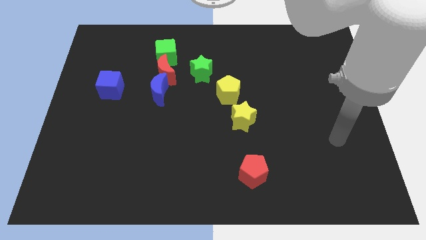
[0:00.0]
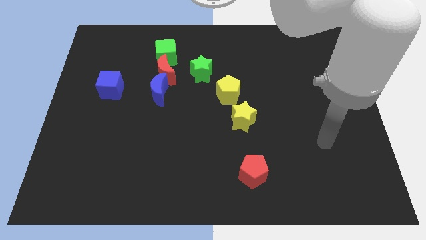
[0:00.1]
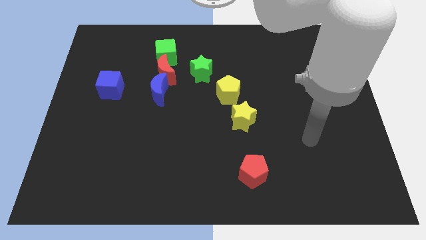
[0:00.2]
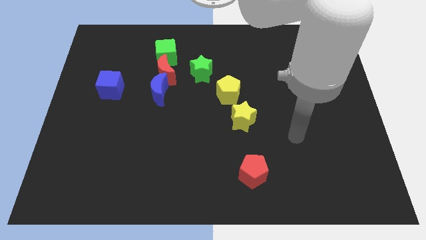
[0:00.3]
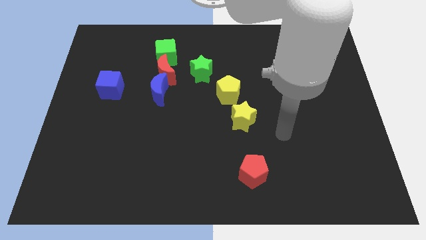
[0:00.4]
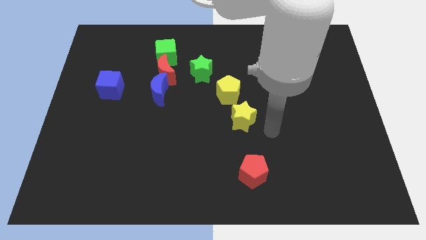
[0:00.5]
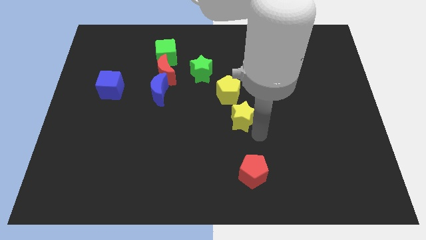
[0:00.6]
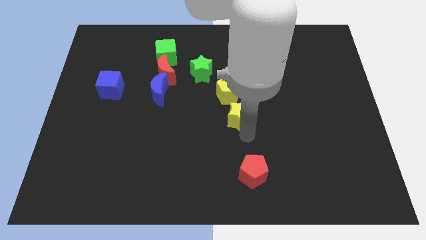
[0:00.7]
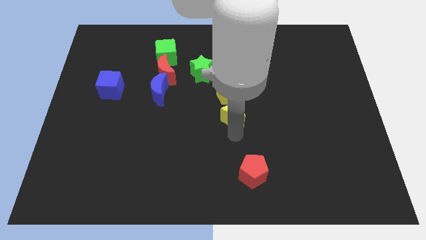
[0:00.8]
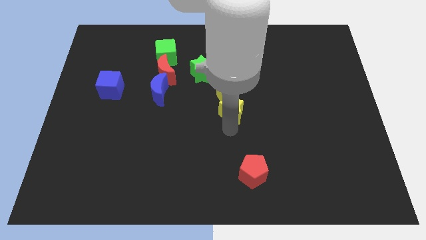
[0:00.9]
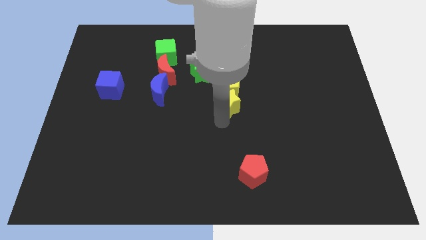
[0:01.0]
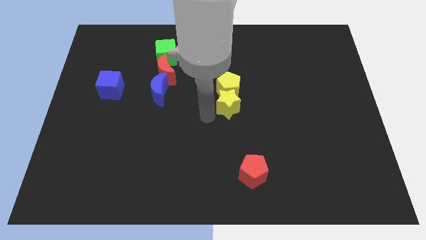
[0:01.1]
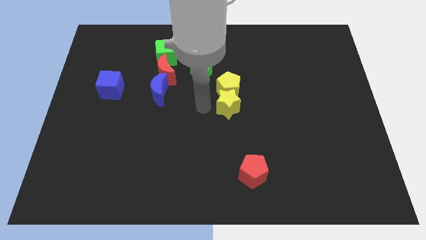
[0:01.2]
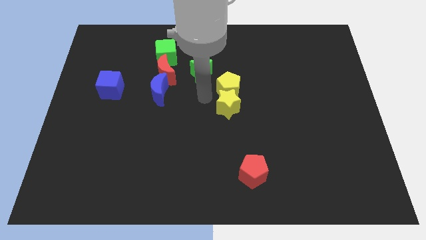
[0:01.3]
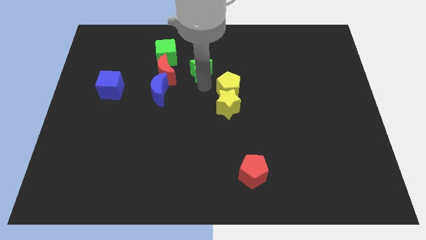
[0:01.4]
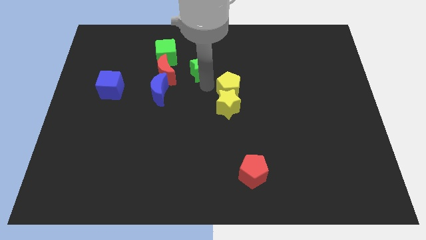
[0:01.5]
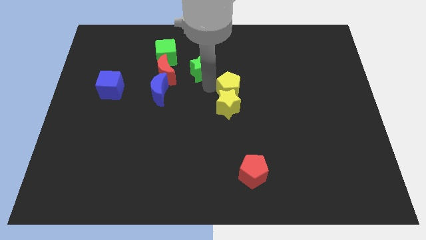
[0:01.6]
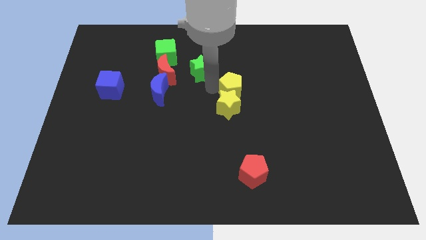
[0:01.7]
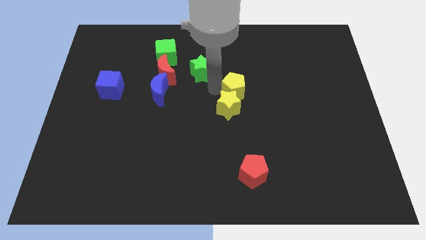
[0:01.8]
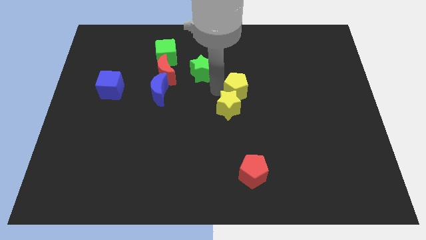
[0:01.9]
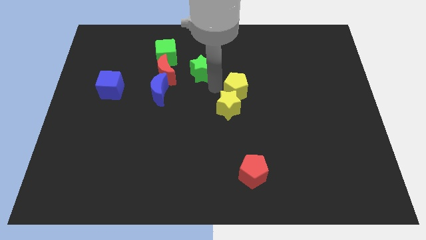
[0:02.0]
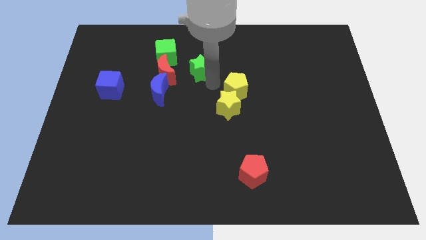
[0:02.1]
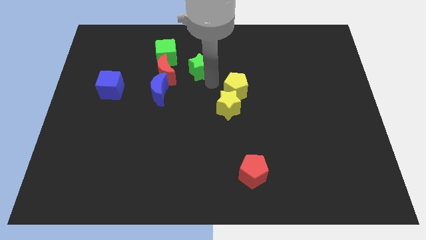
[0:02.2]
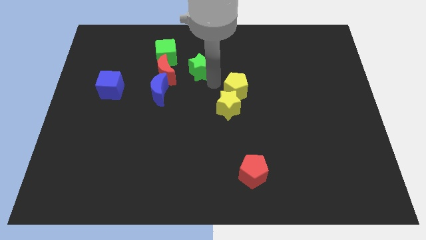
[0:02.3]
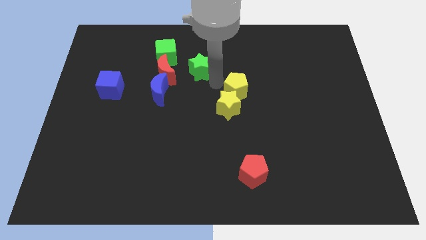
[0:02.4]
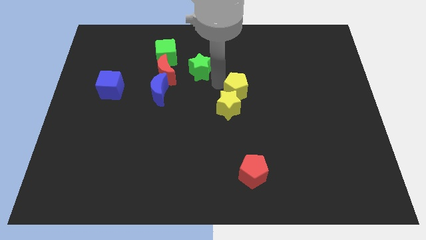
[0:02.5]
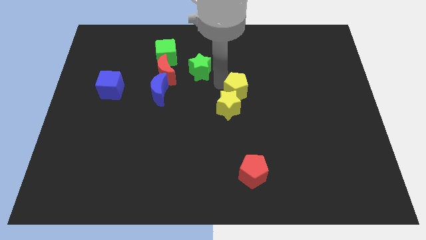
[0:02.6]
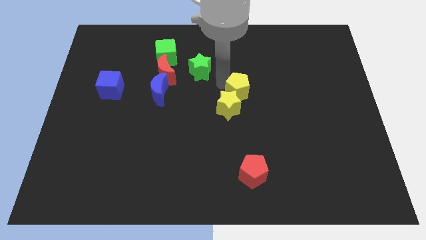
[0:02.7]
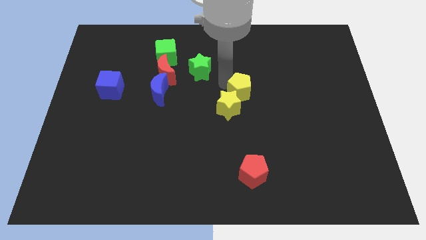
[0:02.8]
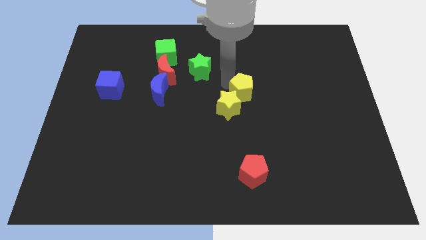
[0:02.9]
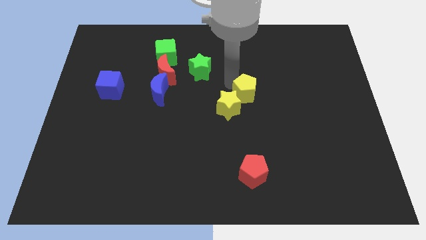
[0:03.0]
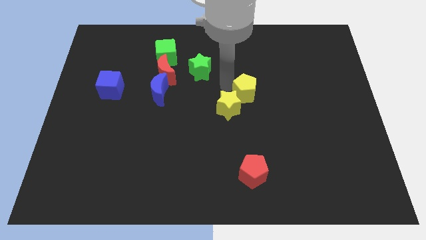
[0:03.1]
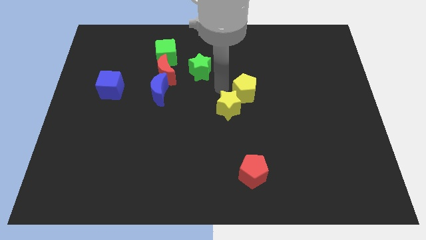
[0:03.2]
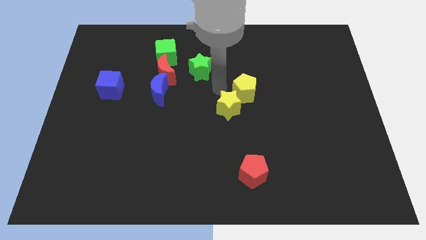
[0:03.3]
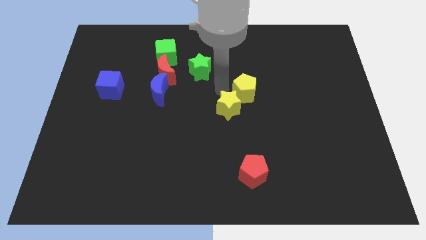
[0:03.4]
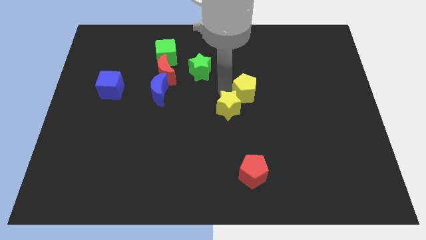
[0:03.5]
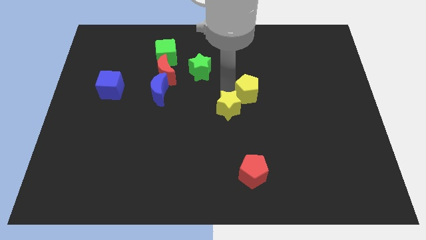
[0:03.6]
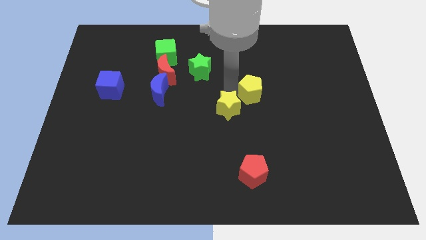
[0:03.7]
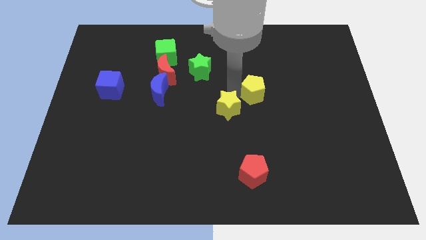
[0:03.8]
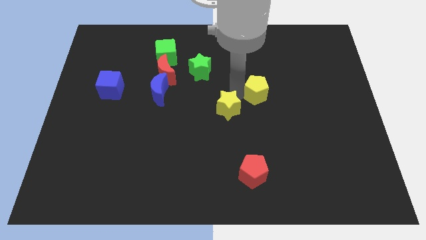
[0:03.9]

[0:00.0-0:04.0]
move the yellow pentagon to the right somewhat

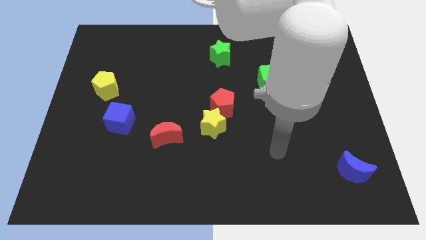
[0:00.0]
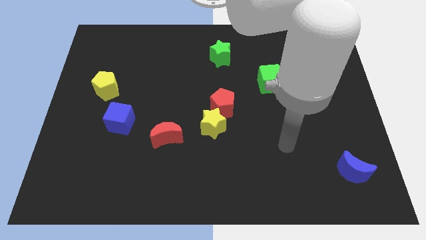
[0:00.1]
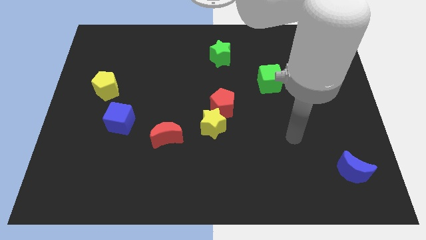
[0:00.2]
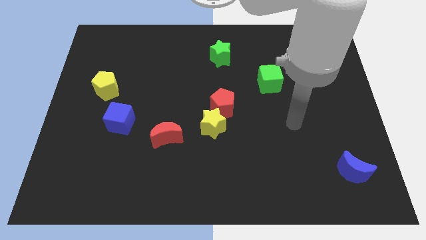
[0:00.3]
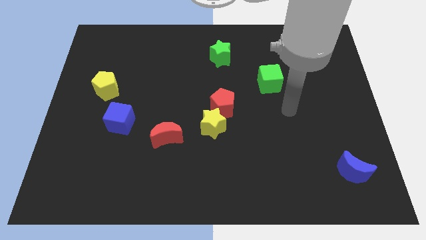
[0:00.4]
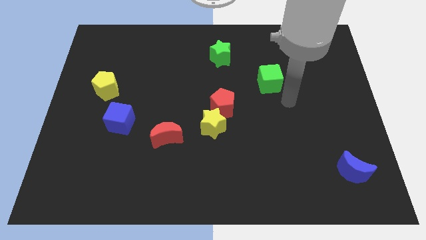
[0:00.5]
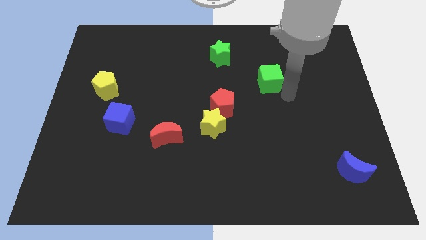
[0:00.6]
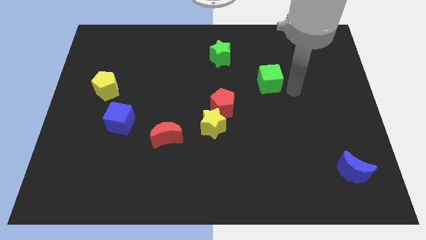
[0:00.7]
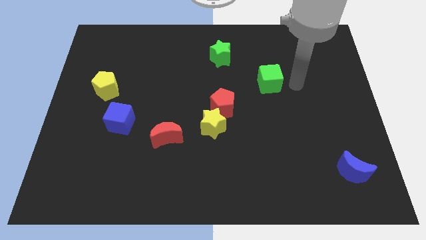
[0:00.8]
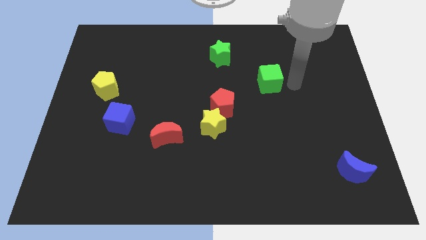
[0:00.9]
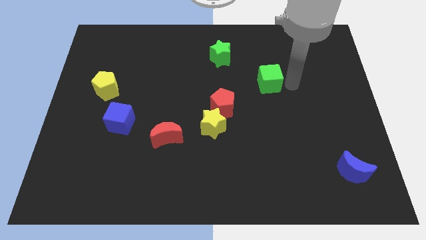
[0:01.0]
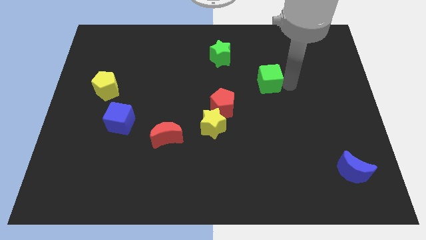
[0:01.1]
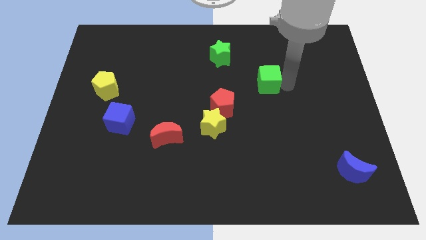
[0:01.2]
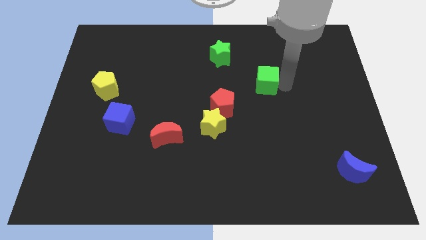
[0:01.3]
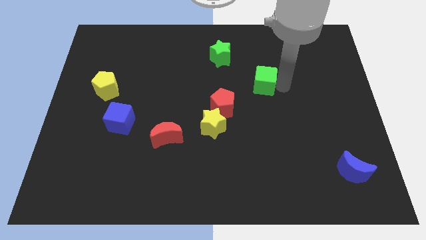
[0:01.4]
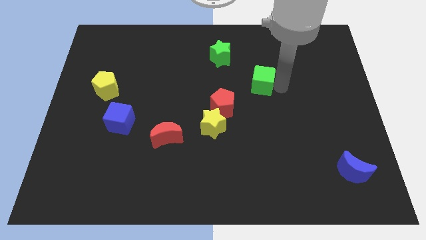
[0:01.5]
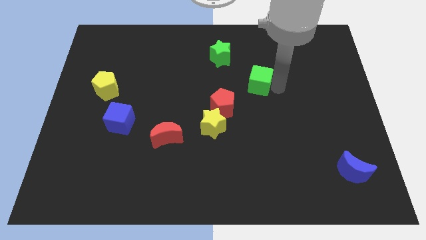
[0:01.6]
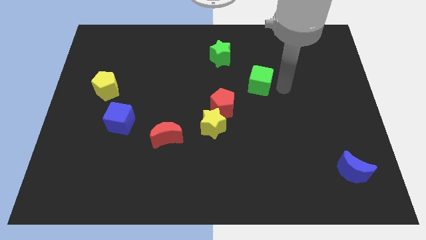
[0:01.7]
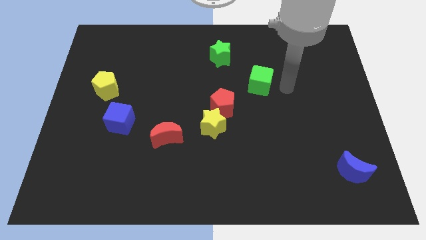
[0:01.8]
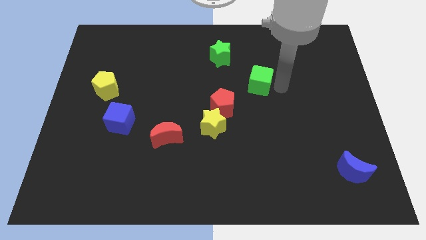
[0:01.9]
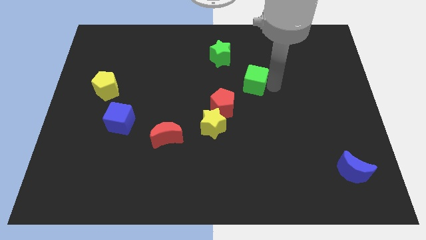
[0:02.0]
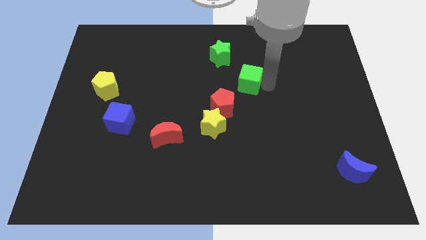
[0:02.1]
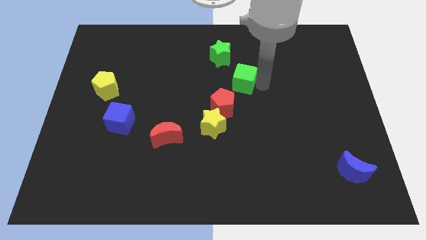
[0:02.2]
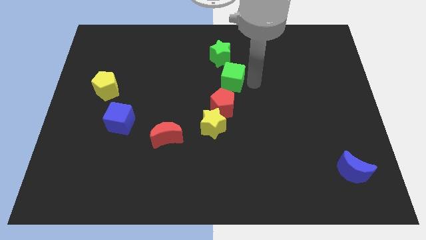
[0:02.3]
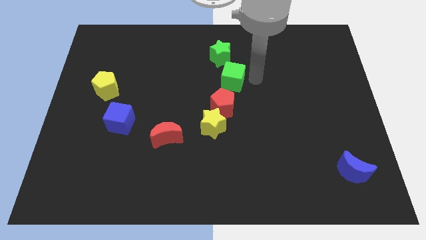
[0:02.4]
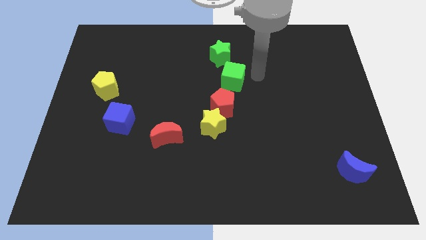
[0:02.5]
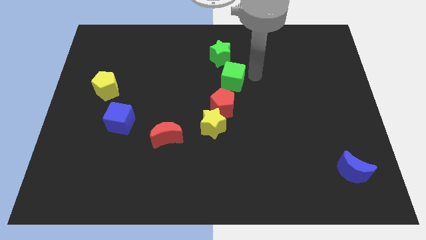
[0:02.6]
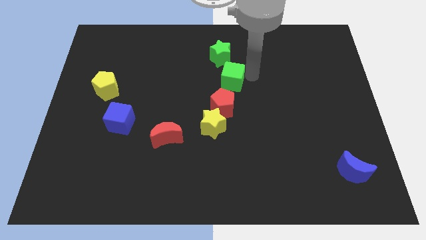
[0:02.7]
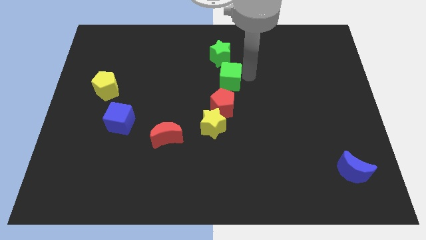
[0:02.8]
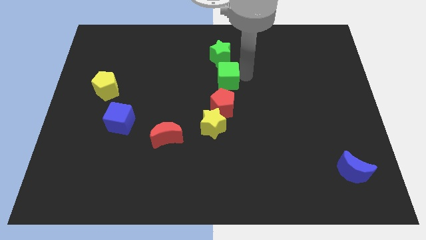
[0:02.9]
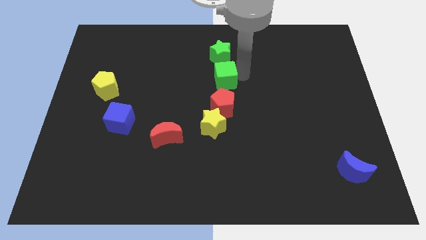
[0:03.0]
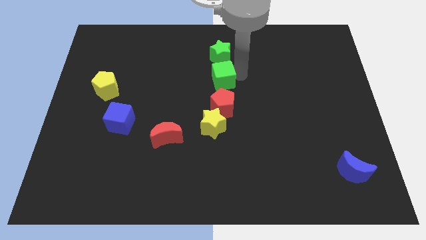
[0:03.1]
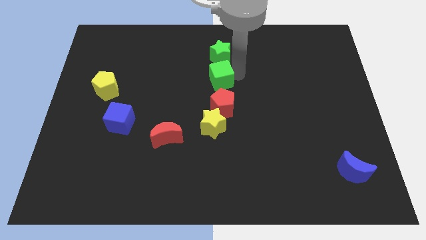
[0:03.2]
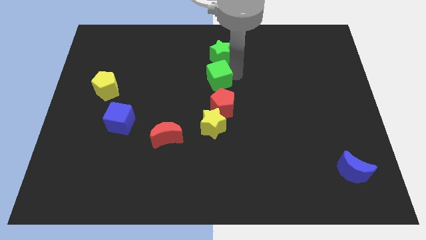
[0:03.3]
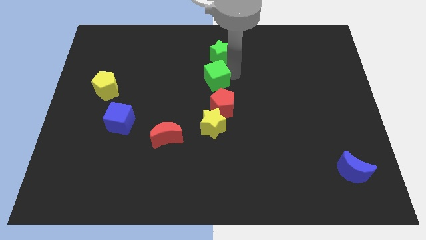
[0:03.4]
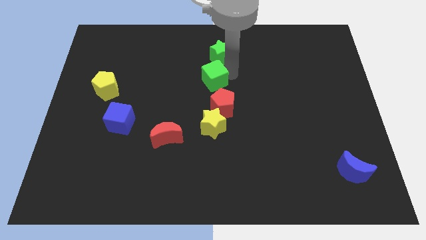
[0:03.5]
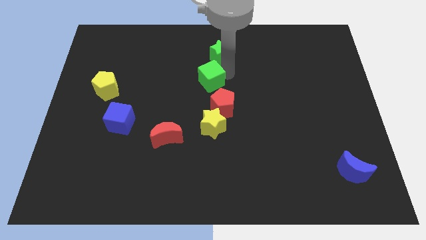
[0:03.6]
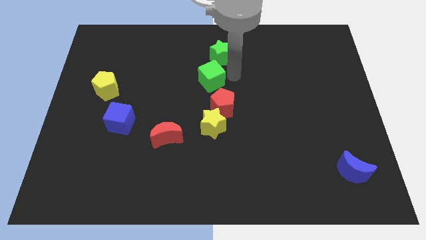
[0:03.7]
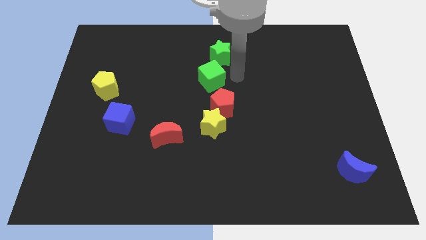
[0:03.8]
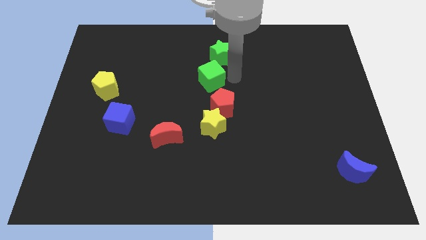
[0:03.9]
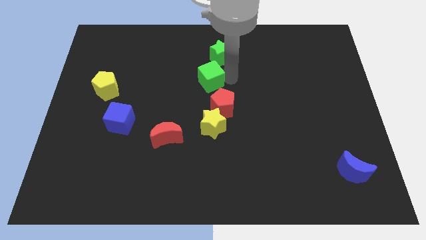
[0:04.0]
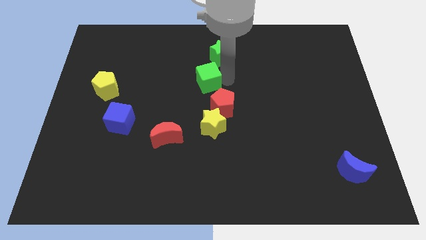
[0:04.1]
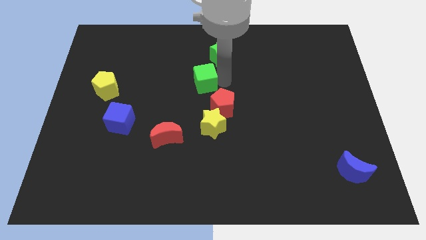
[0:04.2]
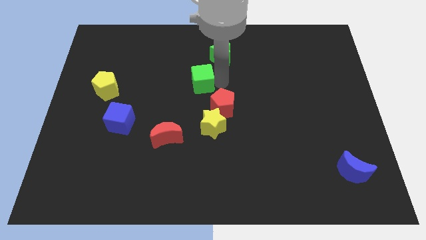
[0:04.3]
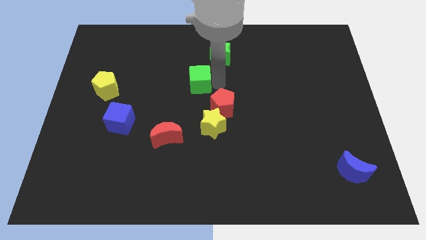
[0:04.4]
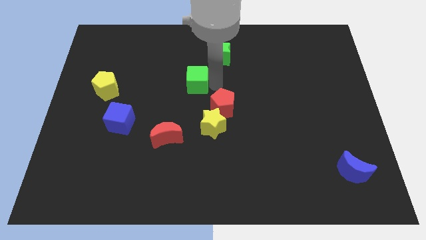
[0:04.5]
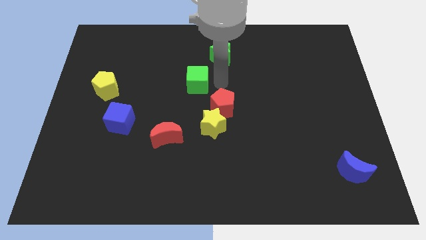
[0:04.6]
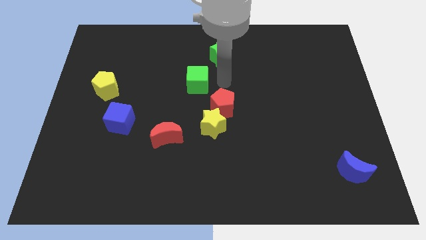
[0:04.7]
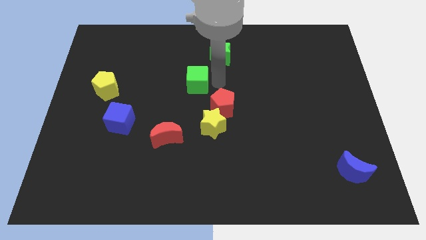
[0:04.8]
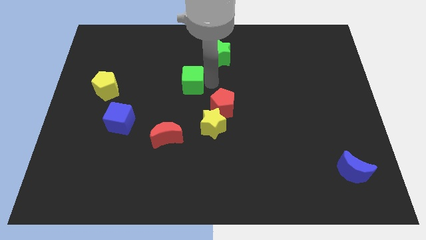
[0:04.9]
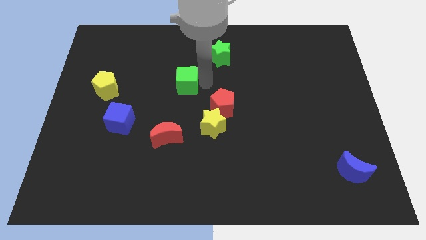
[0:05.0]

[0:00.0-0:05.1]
slide the green cube to the left
